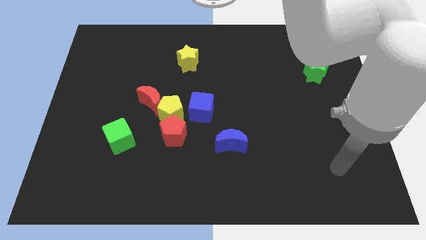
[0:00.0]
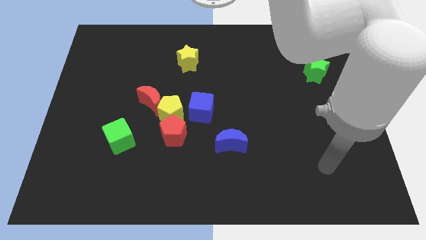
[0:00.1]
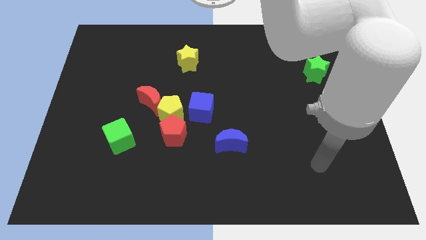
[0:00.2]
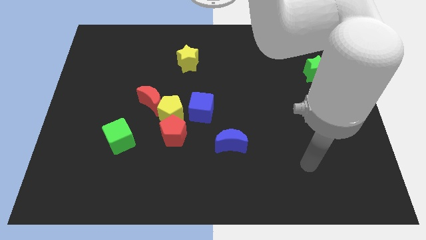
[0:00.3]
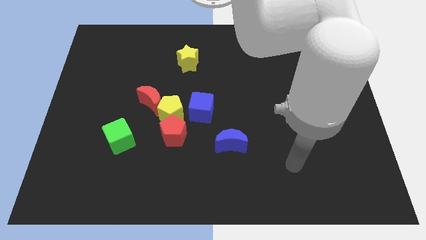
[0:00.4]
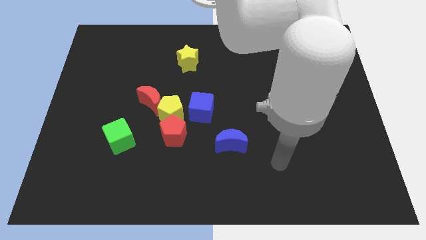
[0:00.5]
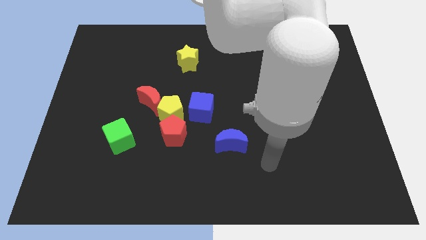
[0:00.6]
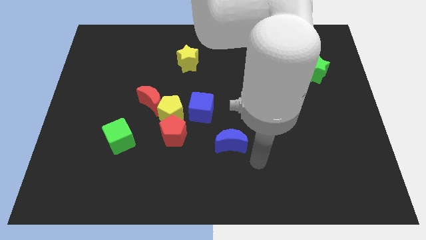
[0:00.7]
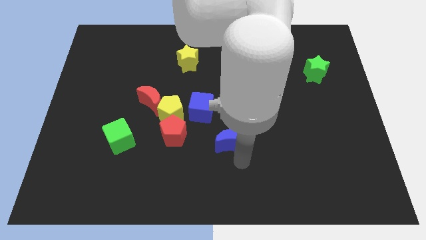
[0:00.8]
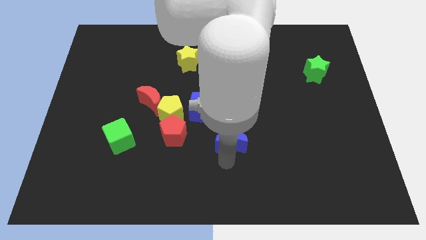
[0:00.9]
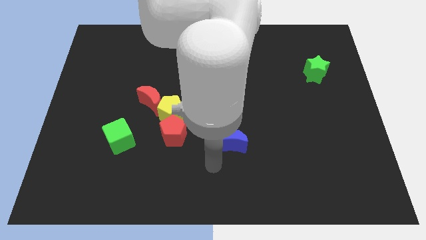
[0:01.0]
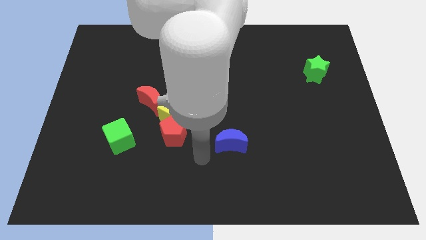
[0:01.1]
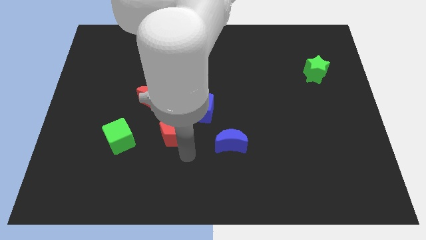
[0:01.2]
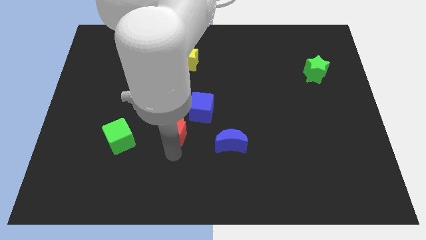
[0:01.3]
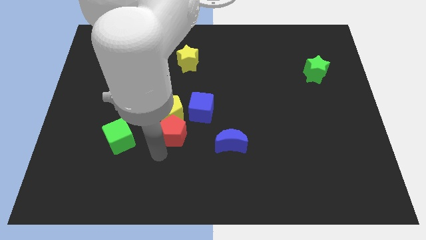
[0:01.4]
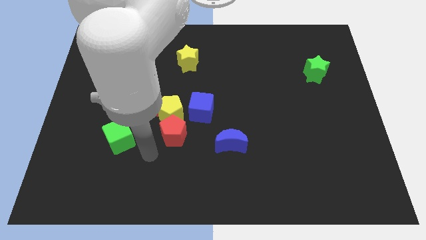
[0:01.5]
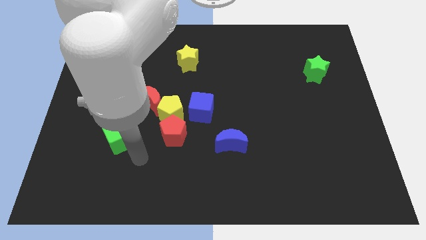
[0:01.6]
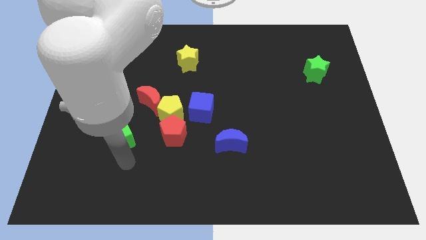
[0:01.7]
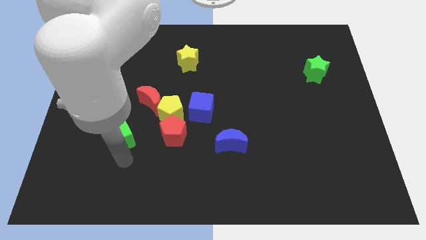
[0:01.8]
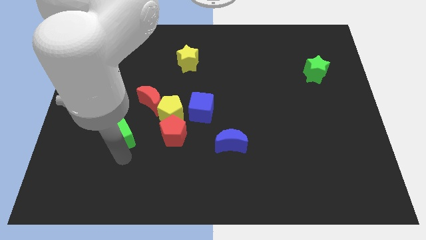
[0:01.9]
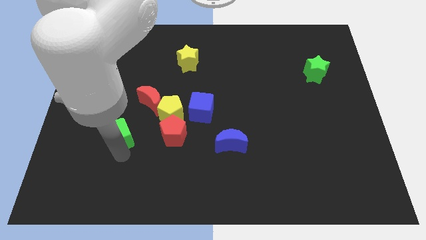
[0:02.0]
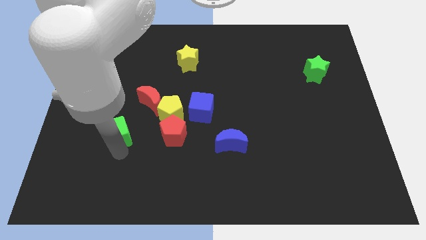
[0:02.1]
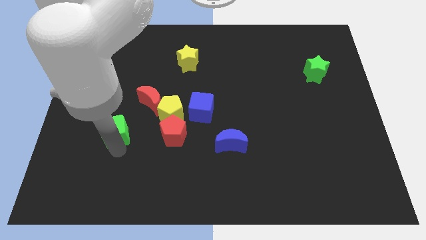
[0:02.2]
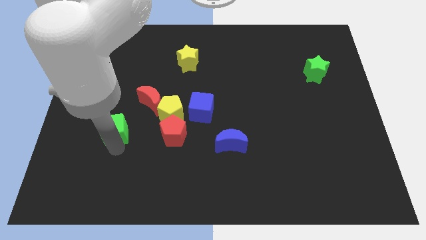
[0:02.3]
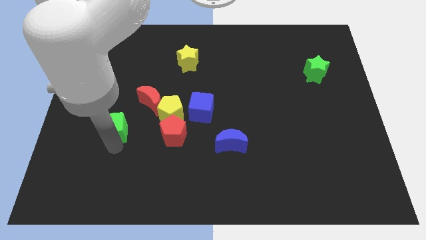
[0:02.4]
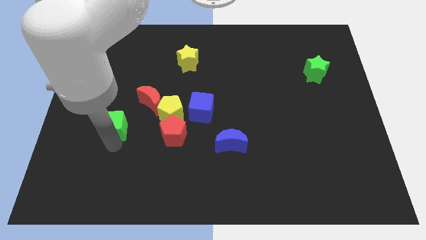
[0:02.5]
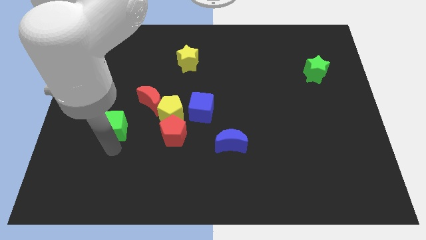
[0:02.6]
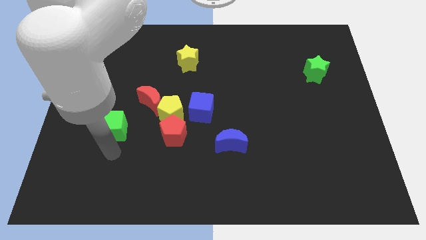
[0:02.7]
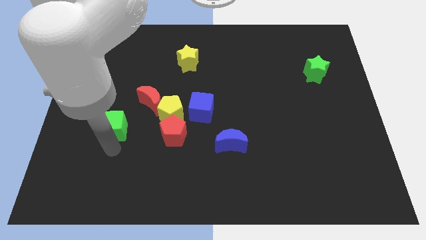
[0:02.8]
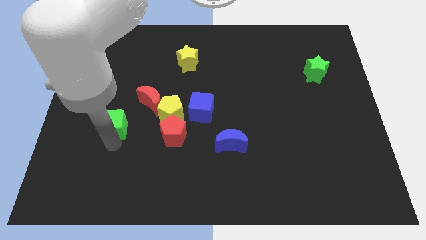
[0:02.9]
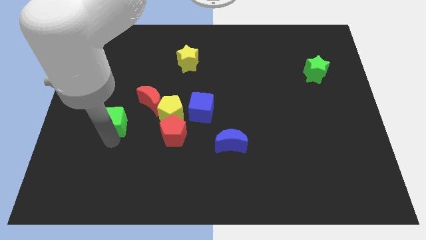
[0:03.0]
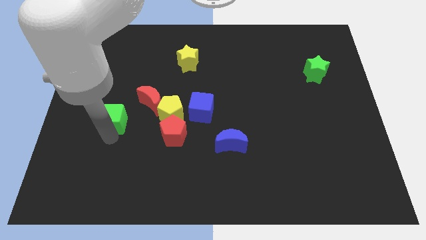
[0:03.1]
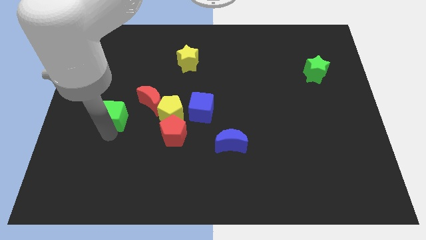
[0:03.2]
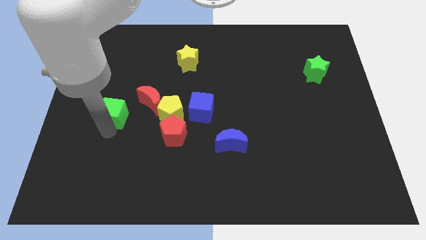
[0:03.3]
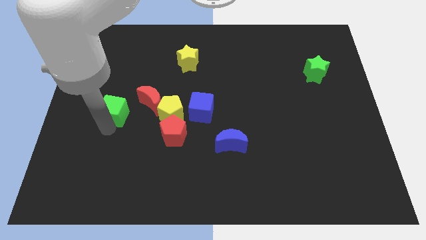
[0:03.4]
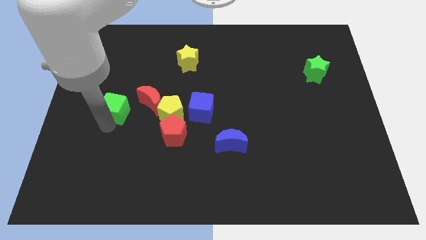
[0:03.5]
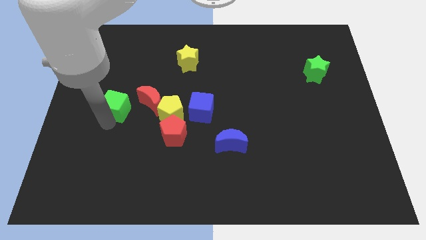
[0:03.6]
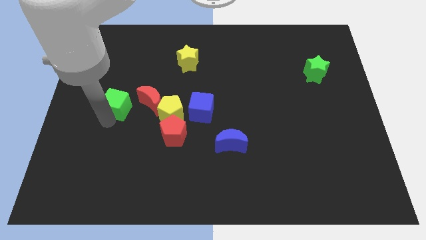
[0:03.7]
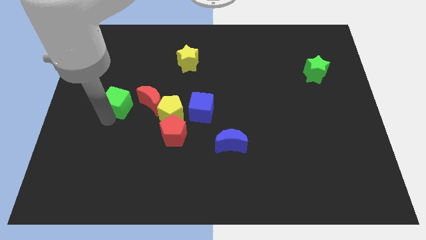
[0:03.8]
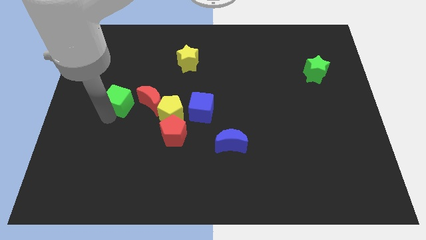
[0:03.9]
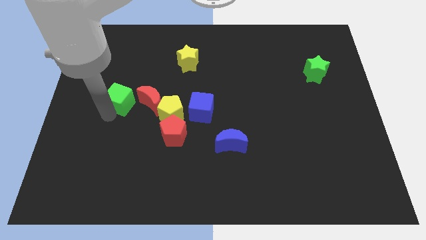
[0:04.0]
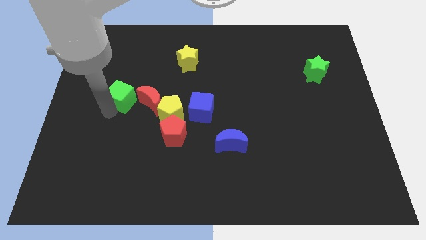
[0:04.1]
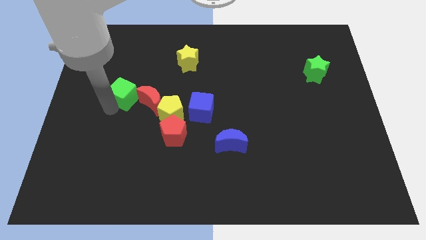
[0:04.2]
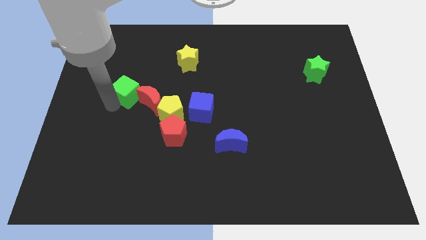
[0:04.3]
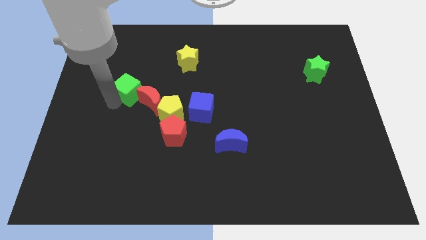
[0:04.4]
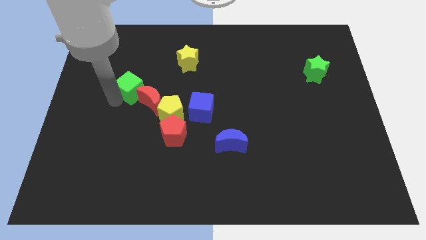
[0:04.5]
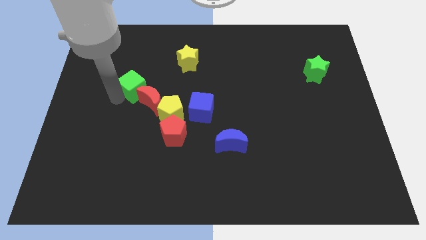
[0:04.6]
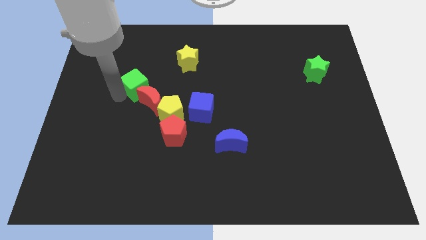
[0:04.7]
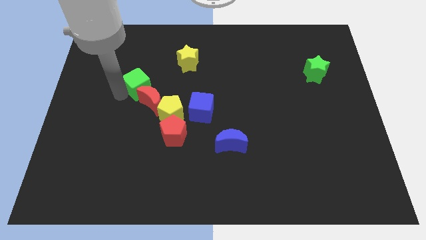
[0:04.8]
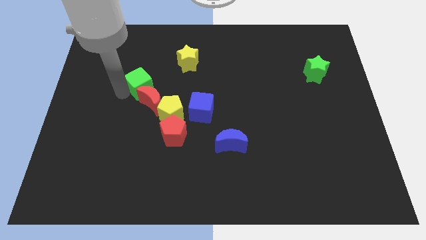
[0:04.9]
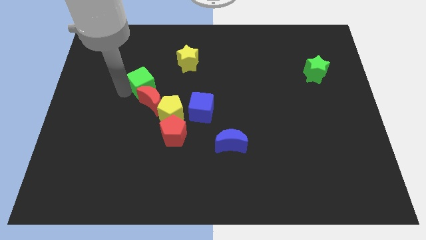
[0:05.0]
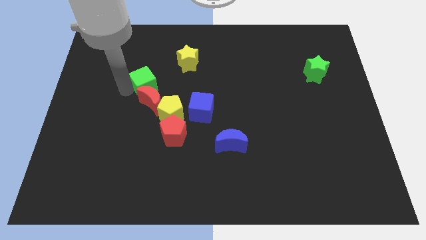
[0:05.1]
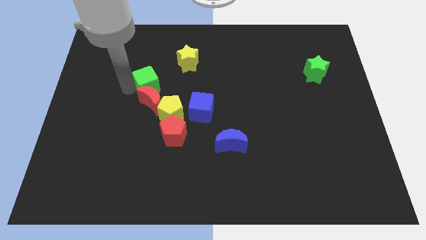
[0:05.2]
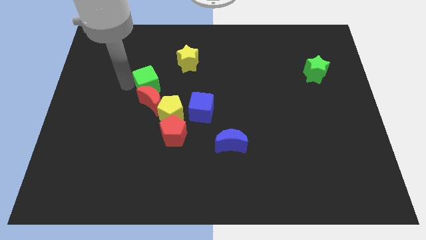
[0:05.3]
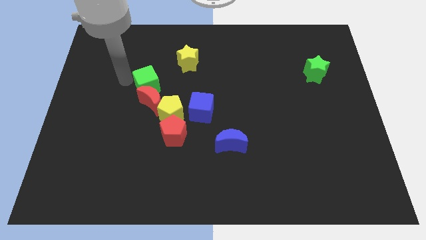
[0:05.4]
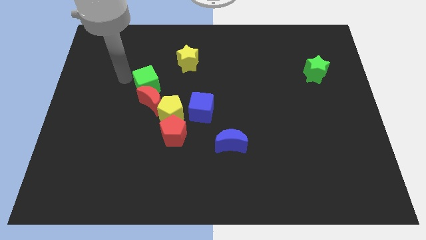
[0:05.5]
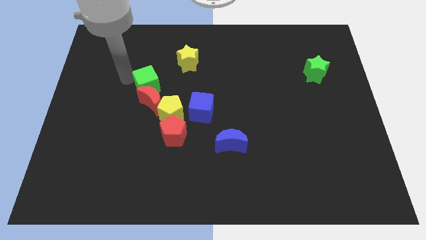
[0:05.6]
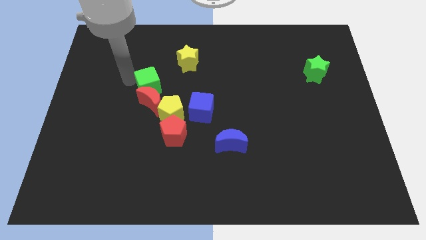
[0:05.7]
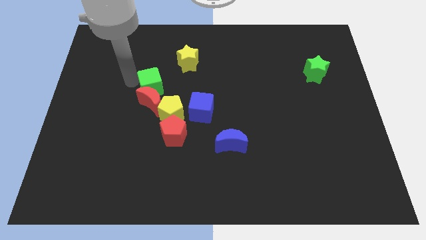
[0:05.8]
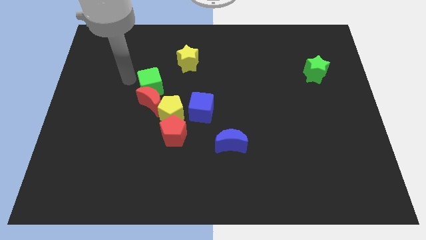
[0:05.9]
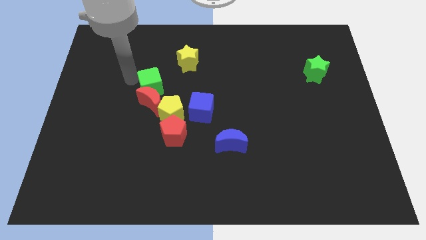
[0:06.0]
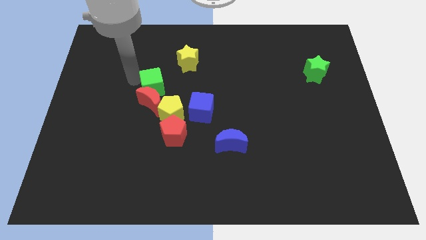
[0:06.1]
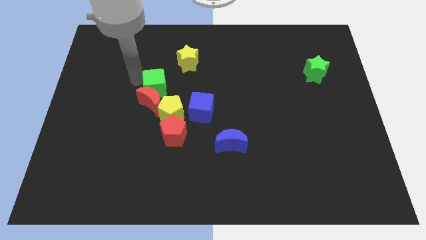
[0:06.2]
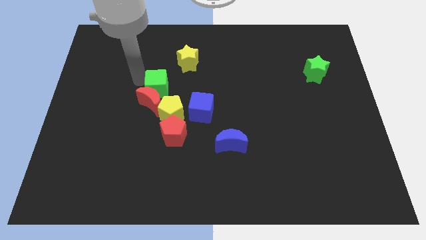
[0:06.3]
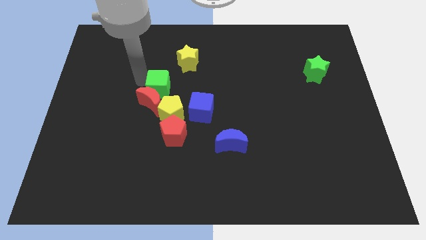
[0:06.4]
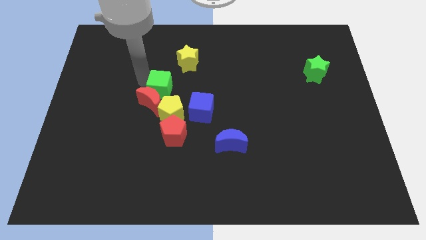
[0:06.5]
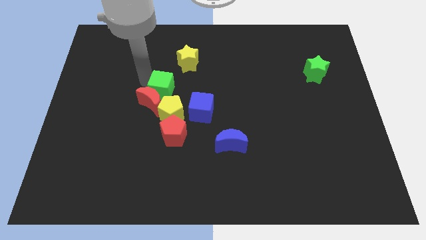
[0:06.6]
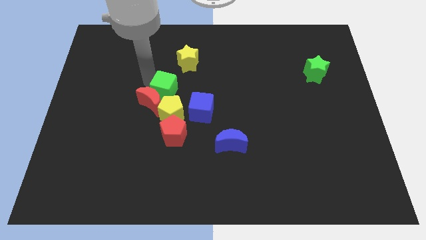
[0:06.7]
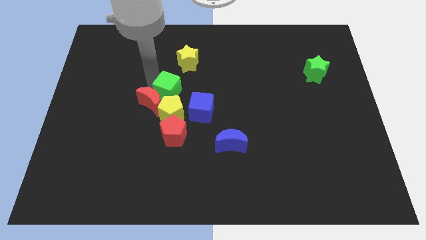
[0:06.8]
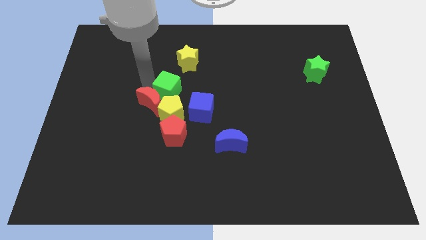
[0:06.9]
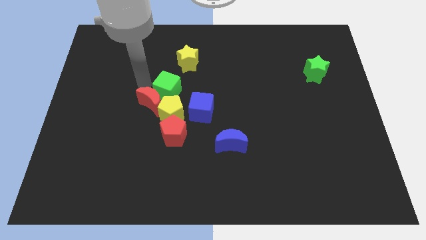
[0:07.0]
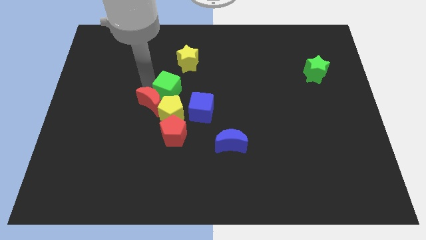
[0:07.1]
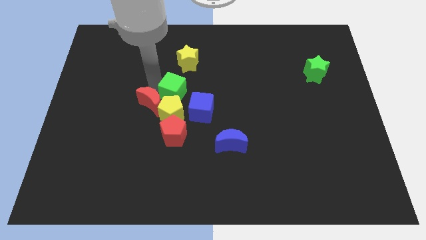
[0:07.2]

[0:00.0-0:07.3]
slide the green cube diagonally up and to the right of the yellow pentagon
